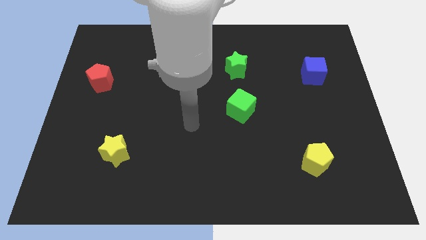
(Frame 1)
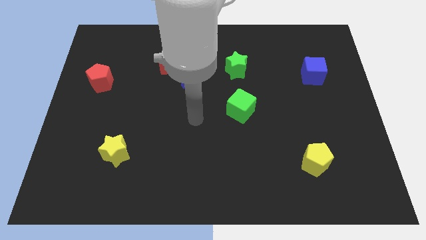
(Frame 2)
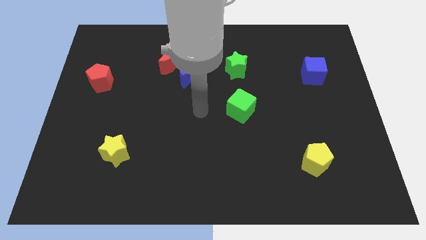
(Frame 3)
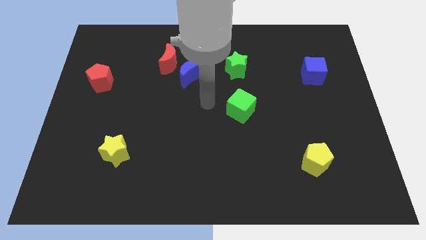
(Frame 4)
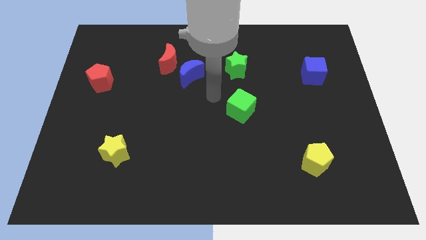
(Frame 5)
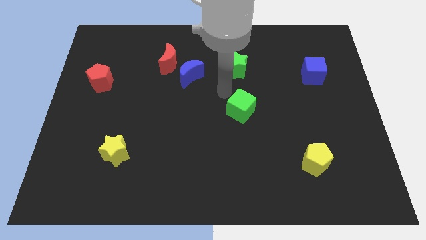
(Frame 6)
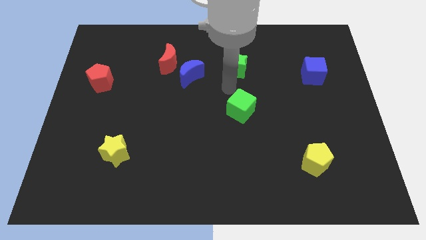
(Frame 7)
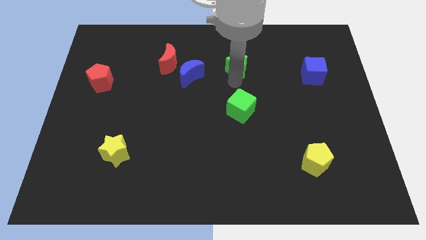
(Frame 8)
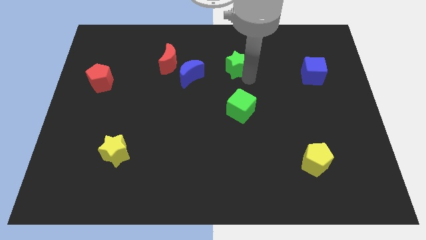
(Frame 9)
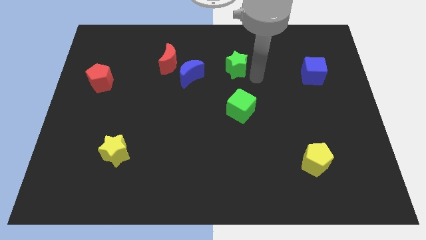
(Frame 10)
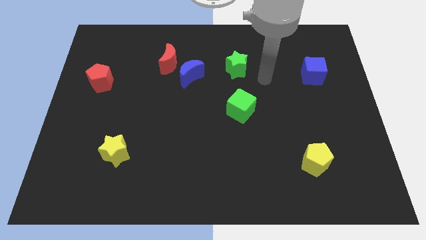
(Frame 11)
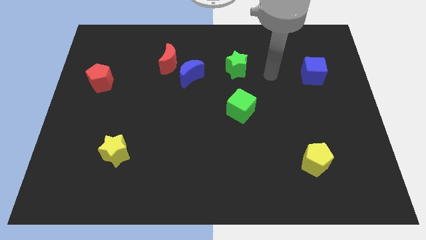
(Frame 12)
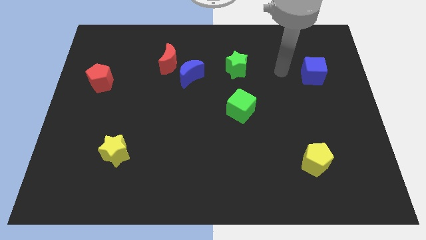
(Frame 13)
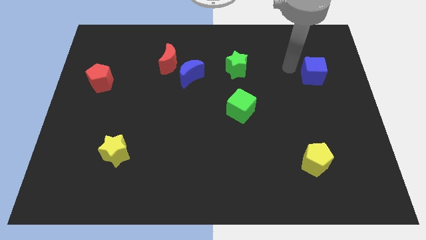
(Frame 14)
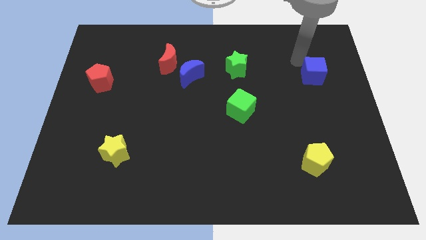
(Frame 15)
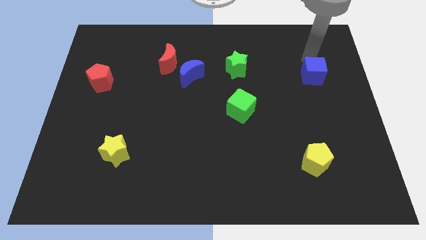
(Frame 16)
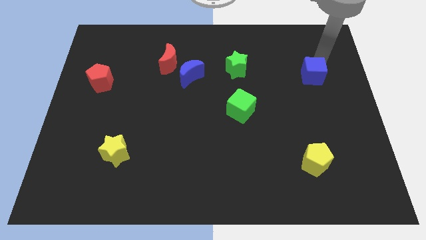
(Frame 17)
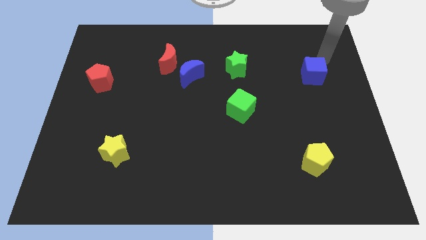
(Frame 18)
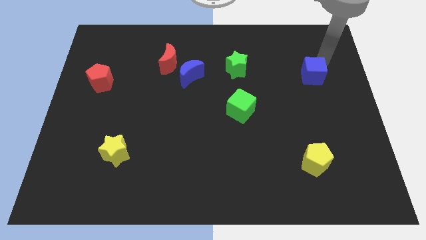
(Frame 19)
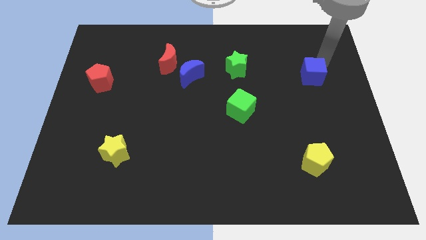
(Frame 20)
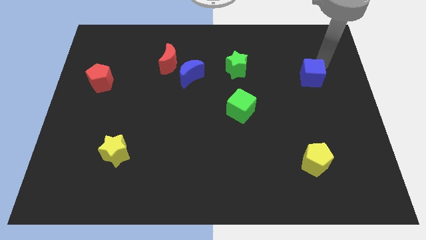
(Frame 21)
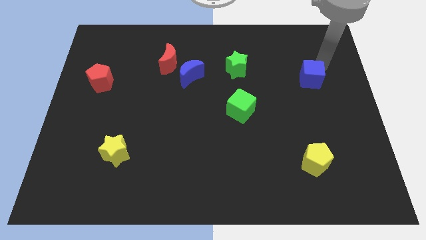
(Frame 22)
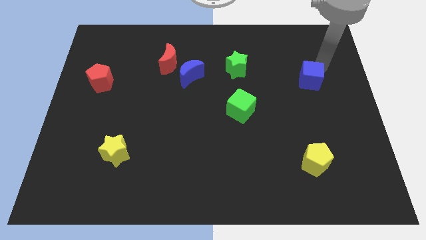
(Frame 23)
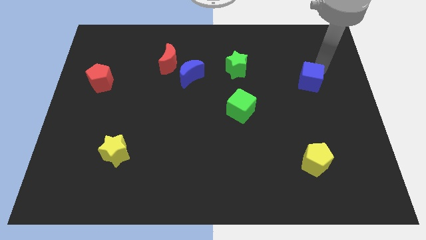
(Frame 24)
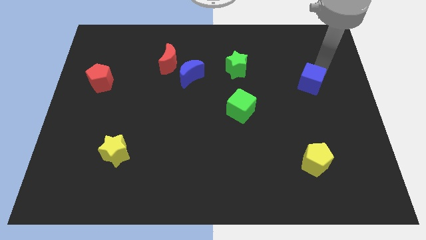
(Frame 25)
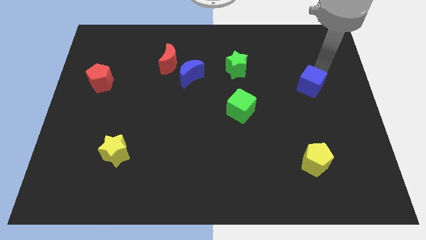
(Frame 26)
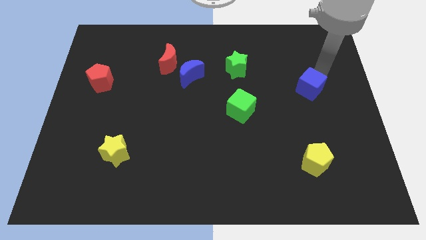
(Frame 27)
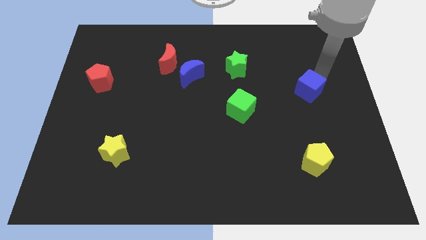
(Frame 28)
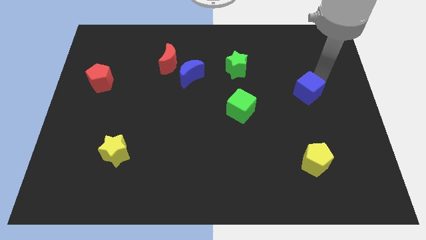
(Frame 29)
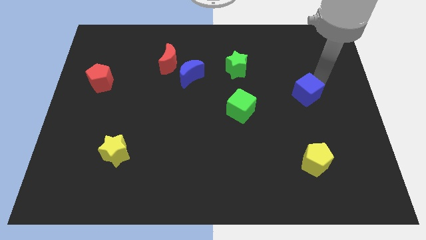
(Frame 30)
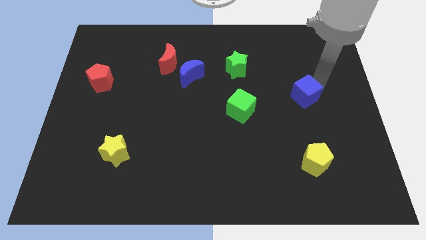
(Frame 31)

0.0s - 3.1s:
slightly push the blue cube diagonally down and to the left

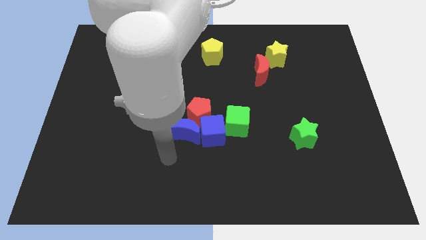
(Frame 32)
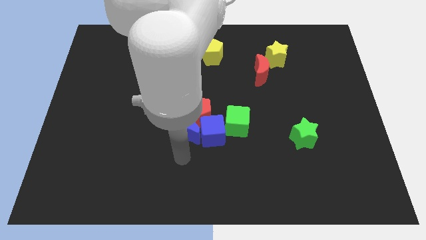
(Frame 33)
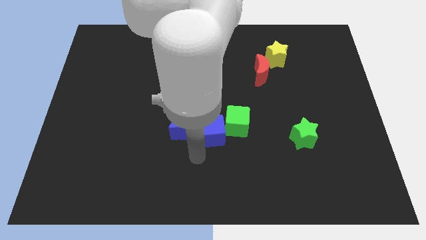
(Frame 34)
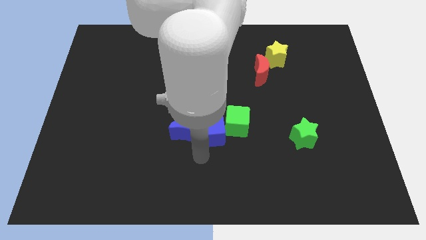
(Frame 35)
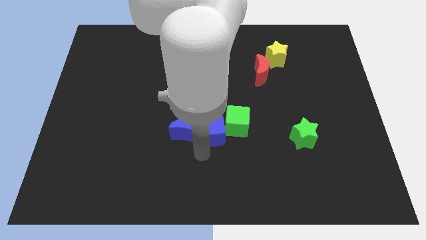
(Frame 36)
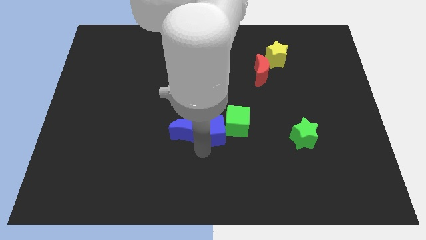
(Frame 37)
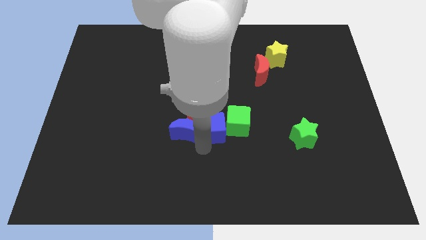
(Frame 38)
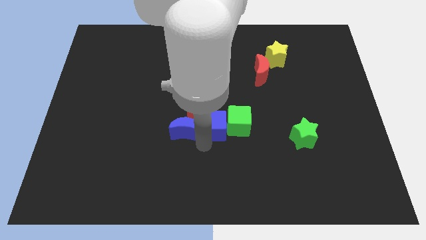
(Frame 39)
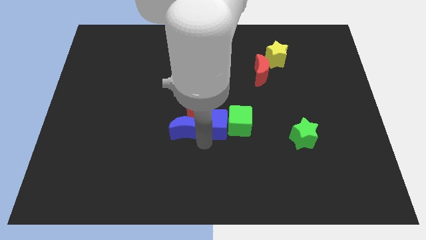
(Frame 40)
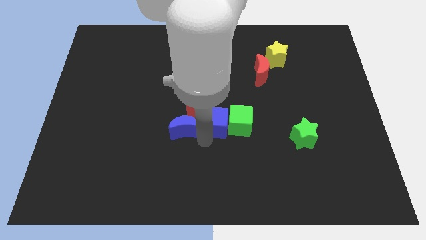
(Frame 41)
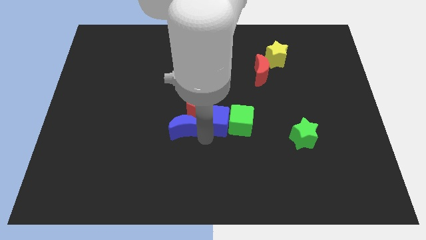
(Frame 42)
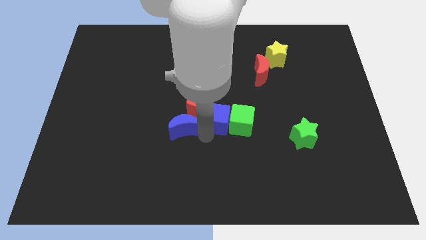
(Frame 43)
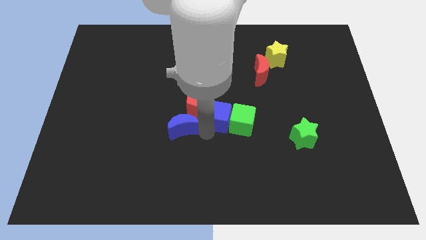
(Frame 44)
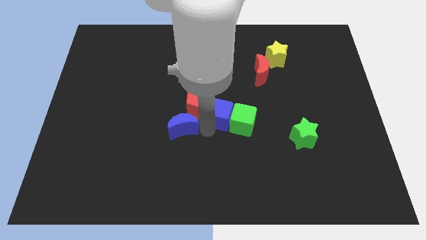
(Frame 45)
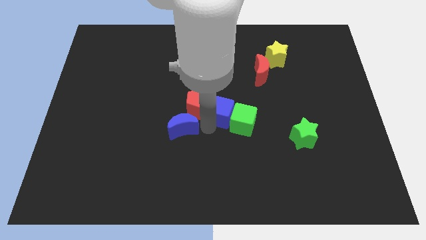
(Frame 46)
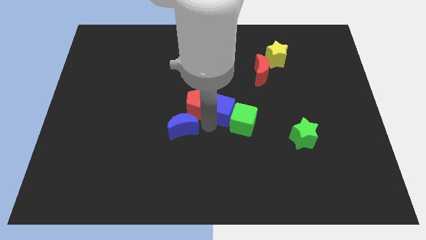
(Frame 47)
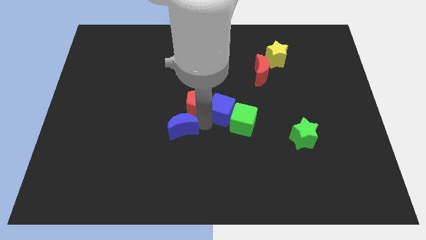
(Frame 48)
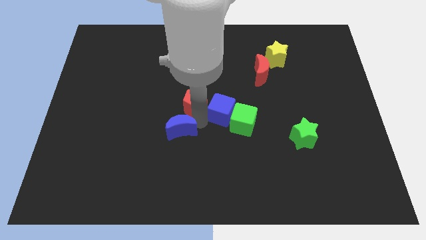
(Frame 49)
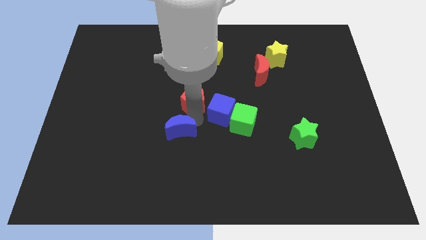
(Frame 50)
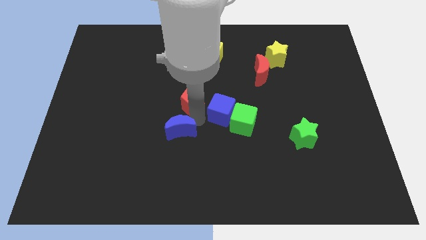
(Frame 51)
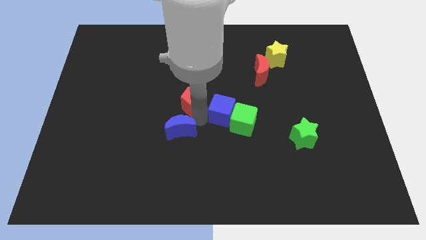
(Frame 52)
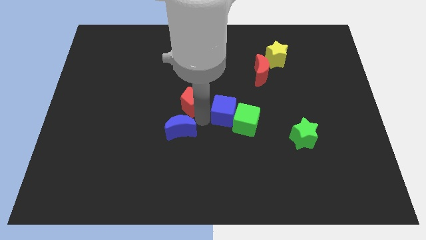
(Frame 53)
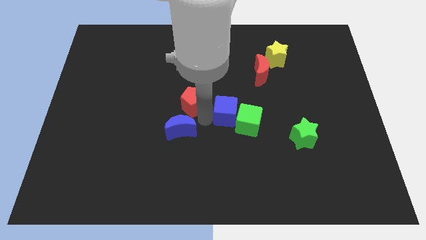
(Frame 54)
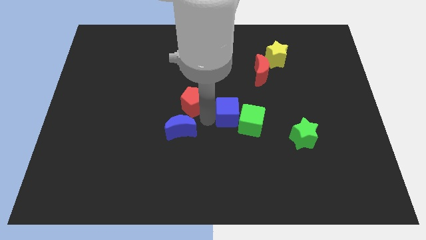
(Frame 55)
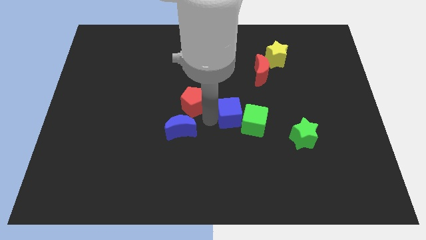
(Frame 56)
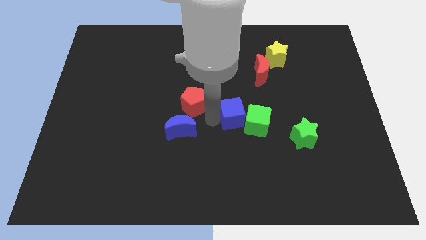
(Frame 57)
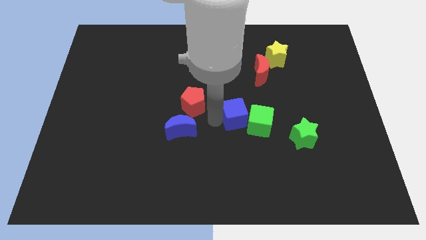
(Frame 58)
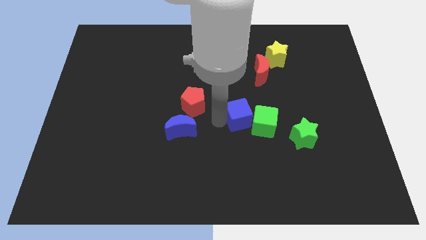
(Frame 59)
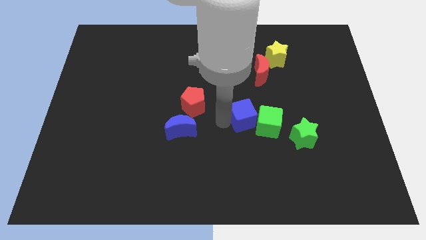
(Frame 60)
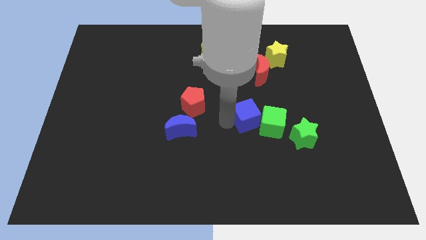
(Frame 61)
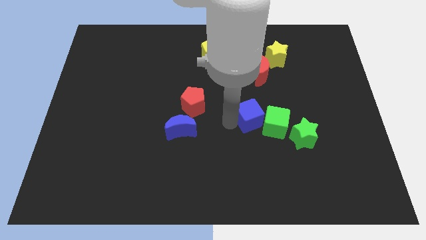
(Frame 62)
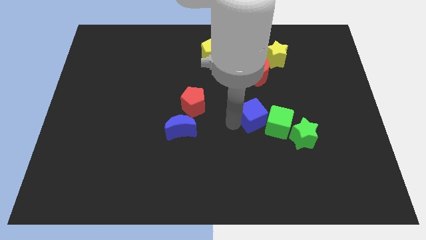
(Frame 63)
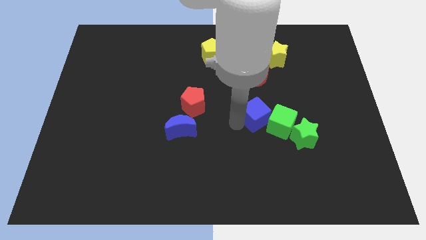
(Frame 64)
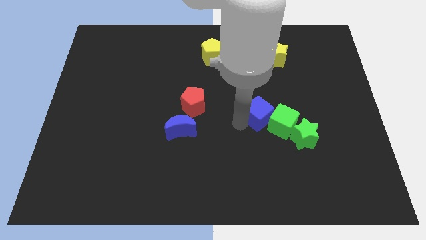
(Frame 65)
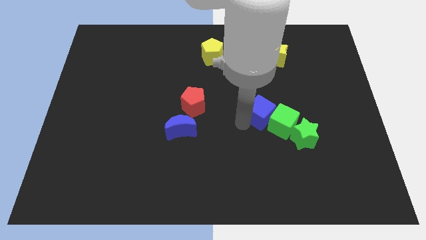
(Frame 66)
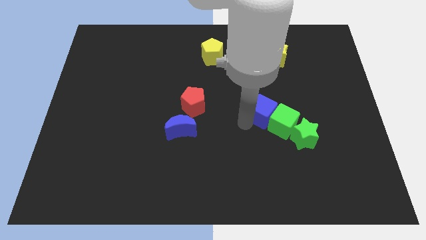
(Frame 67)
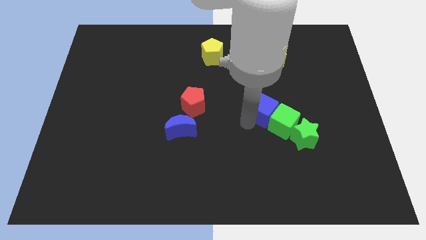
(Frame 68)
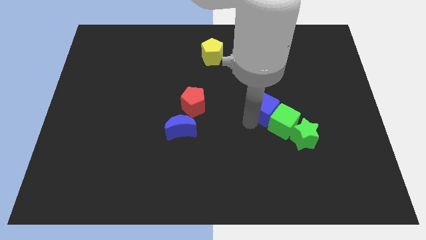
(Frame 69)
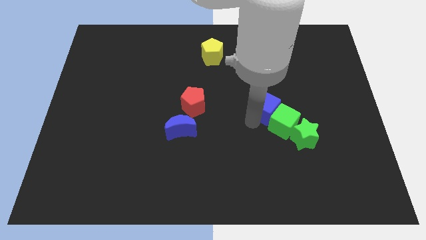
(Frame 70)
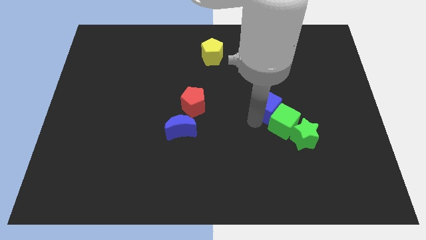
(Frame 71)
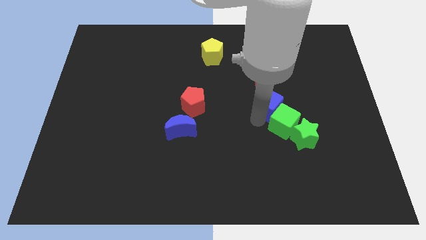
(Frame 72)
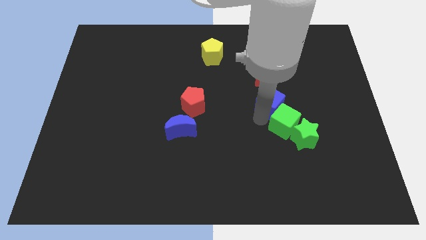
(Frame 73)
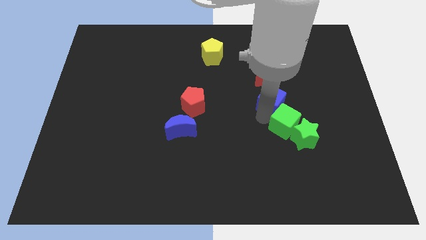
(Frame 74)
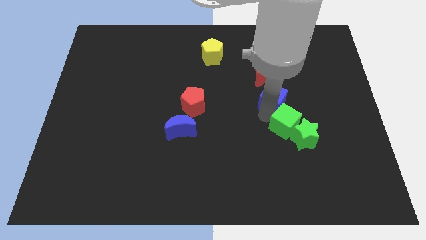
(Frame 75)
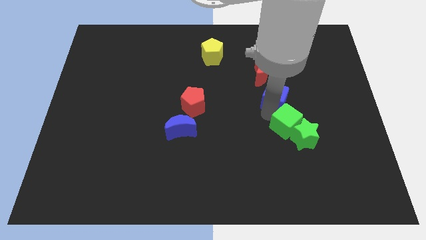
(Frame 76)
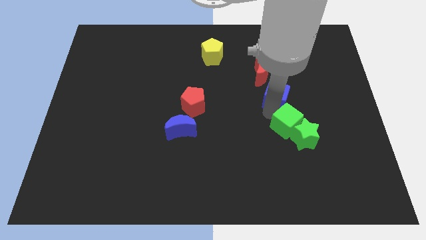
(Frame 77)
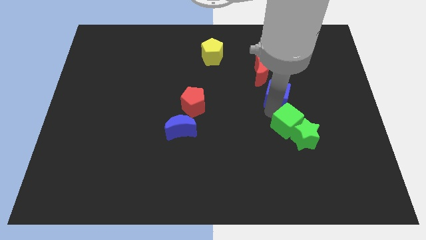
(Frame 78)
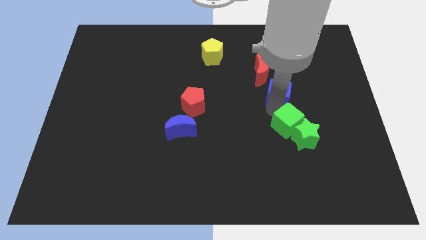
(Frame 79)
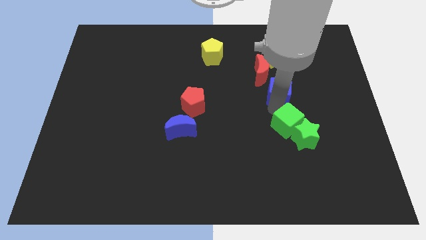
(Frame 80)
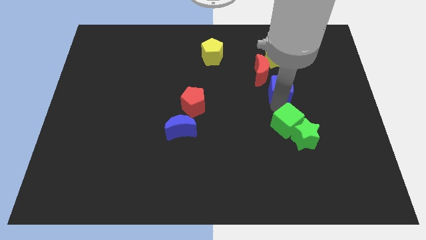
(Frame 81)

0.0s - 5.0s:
push the blue cube upwards and right diagonally

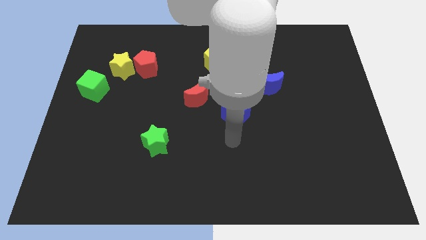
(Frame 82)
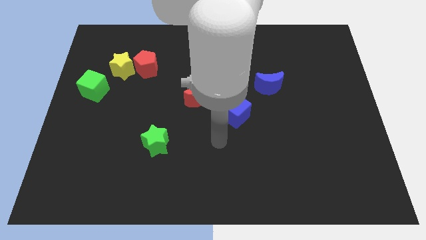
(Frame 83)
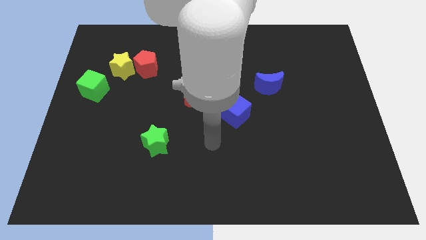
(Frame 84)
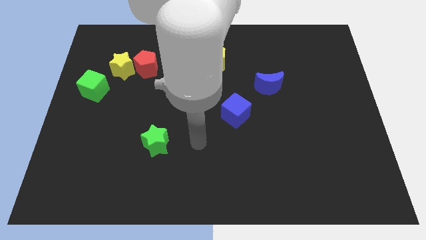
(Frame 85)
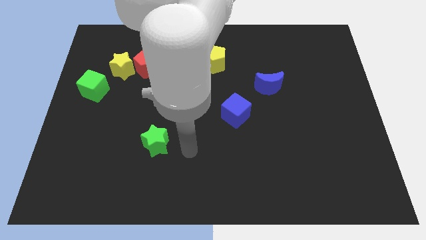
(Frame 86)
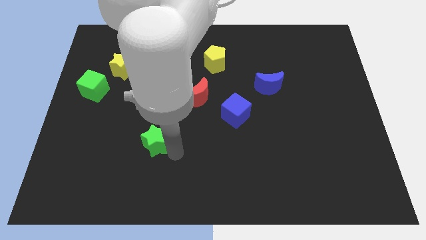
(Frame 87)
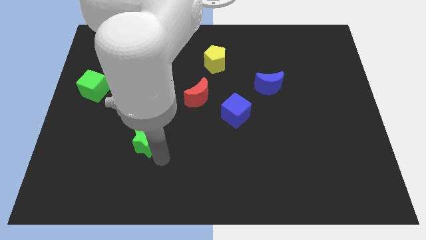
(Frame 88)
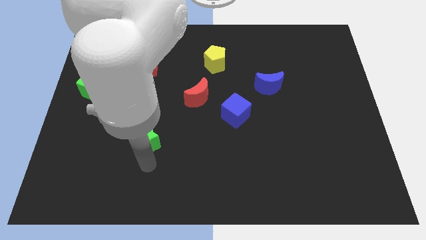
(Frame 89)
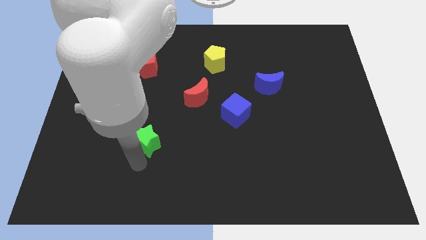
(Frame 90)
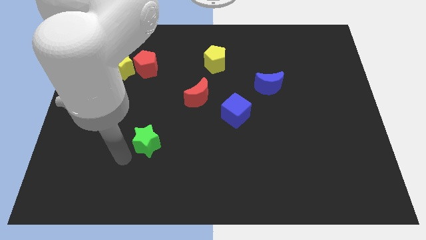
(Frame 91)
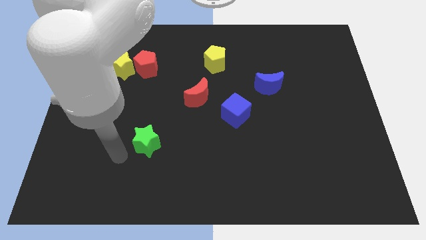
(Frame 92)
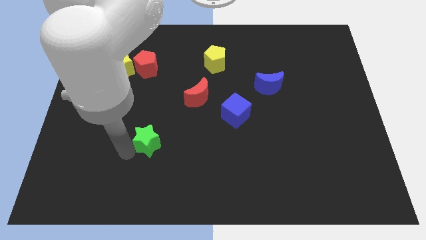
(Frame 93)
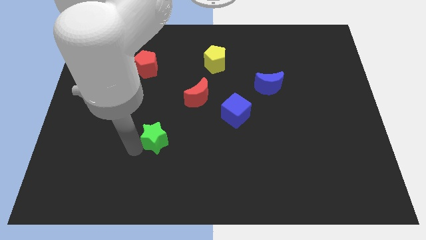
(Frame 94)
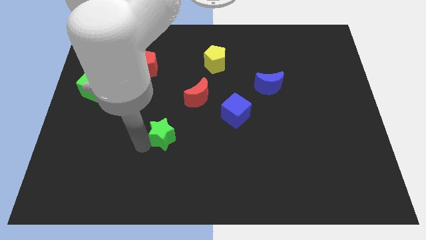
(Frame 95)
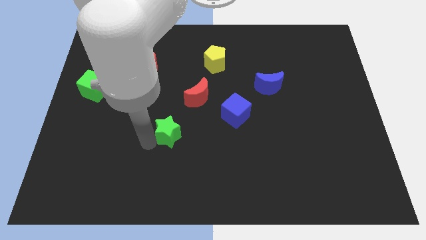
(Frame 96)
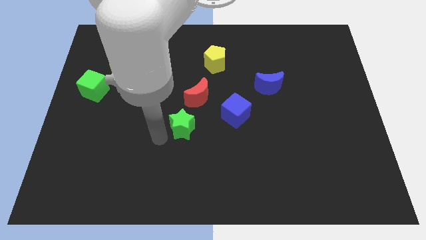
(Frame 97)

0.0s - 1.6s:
move the green star up and right diagonally a little
